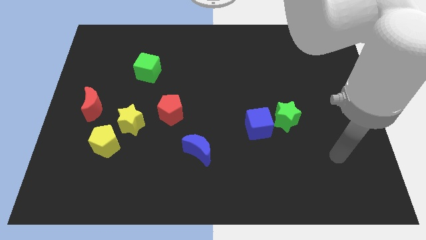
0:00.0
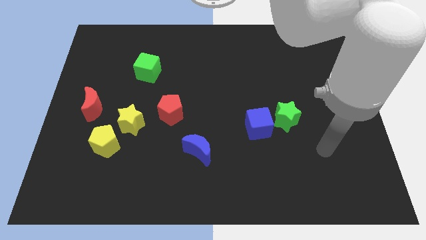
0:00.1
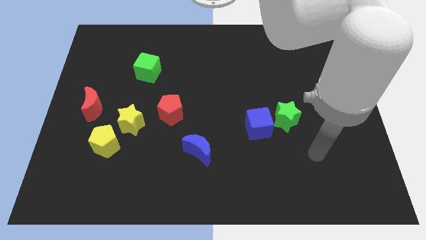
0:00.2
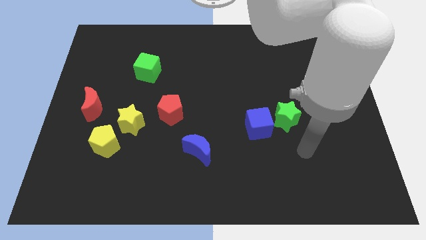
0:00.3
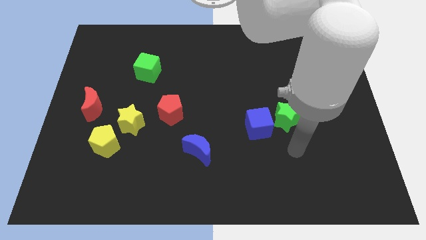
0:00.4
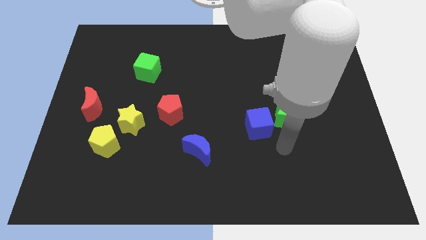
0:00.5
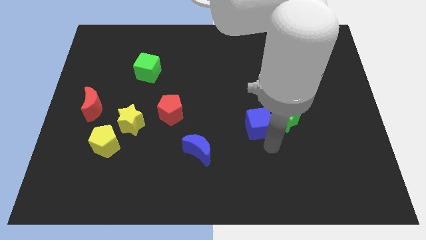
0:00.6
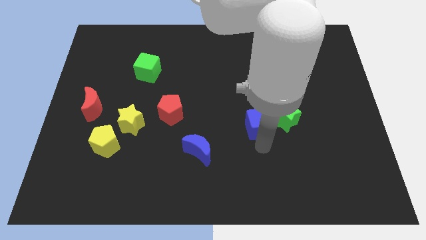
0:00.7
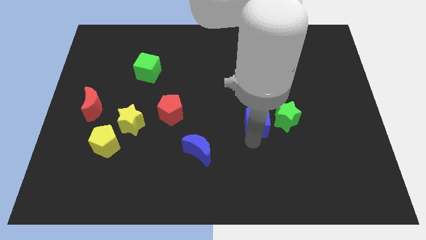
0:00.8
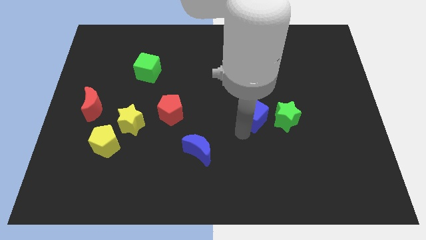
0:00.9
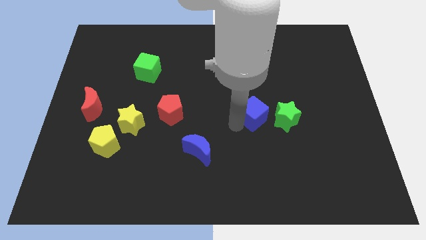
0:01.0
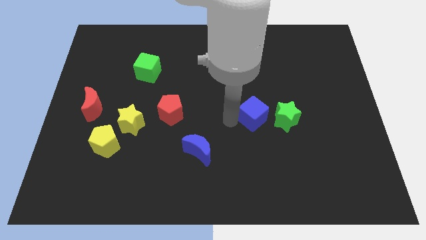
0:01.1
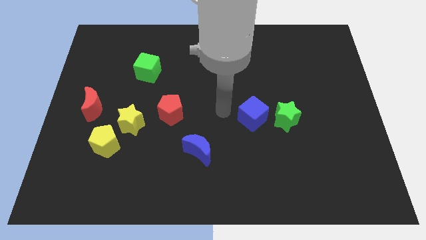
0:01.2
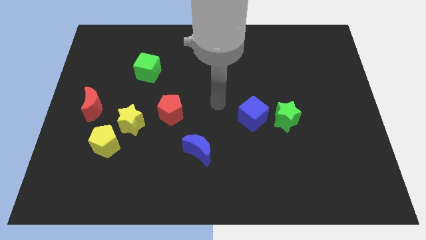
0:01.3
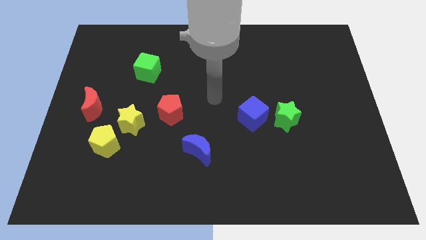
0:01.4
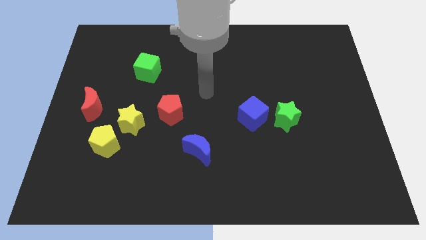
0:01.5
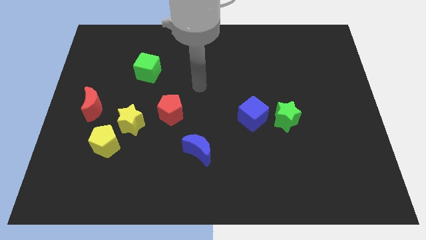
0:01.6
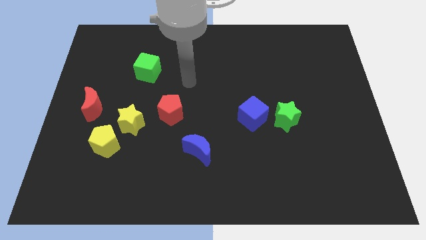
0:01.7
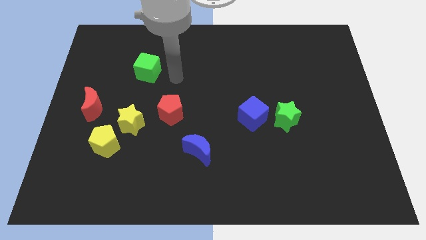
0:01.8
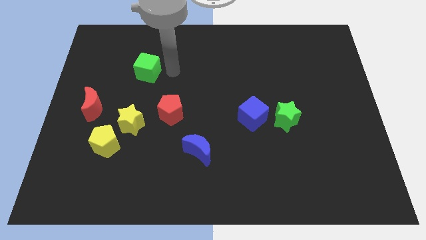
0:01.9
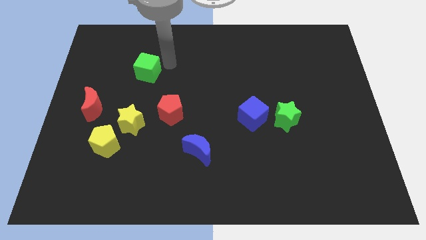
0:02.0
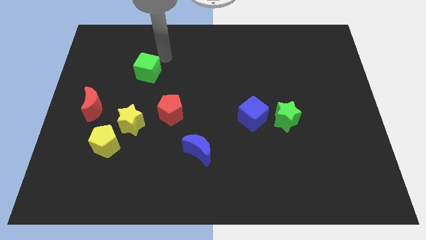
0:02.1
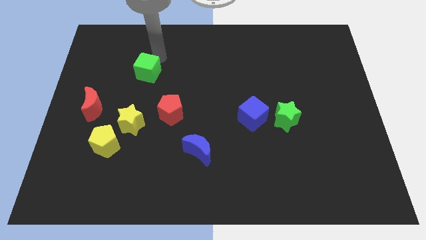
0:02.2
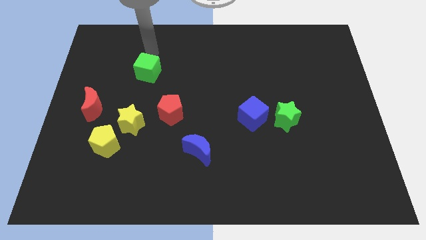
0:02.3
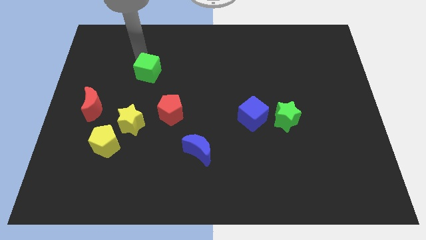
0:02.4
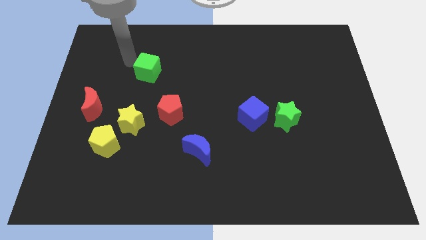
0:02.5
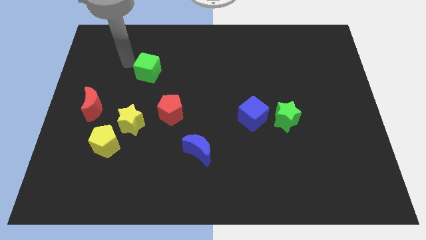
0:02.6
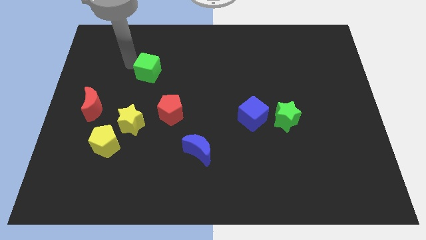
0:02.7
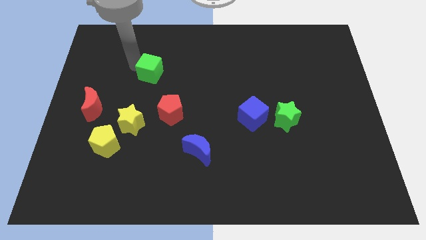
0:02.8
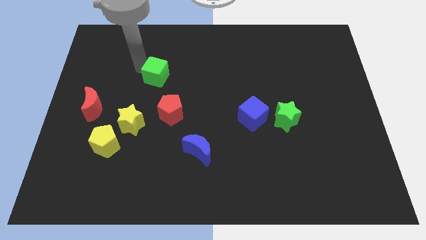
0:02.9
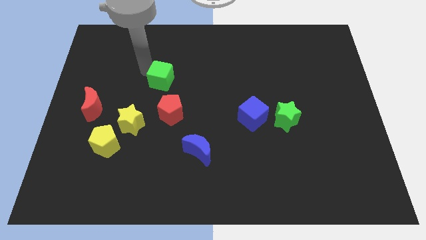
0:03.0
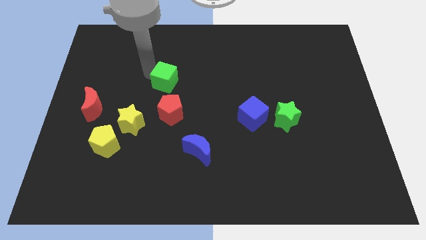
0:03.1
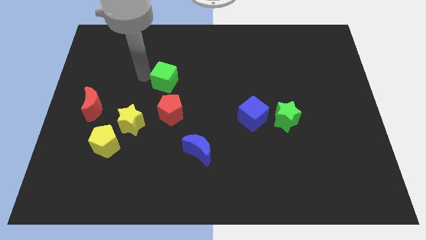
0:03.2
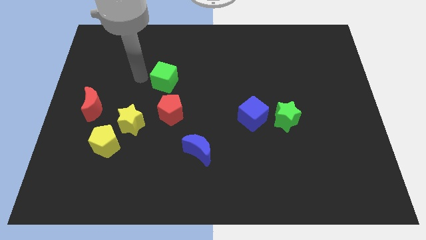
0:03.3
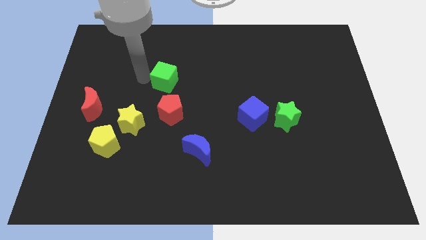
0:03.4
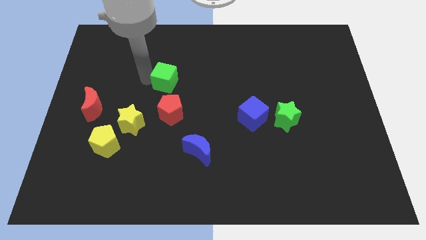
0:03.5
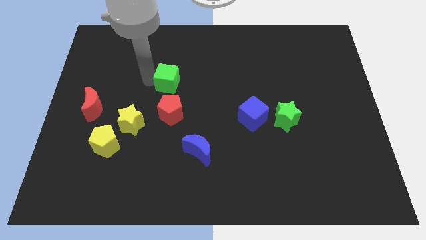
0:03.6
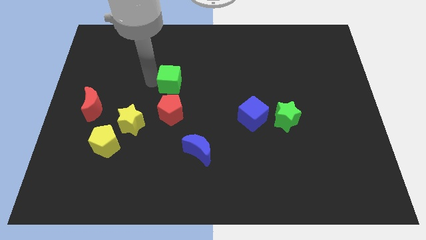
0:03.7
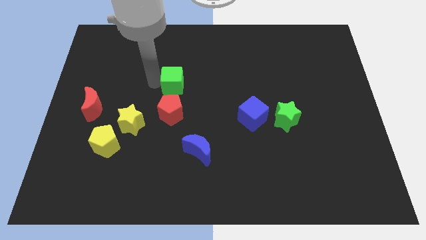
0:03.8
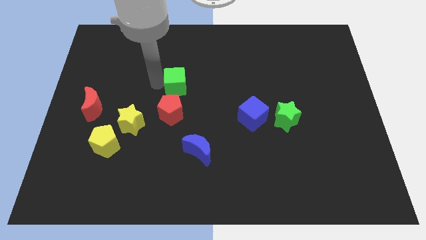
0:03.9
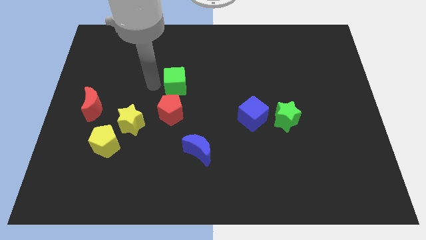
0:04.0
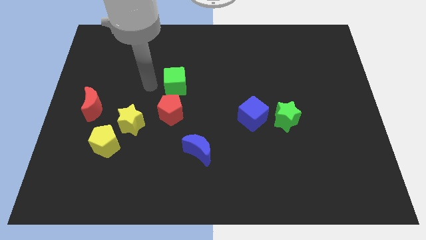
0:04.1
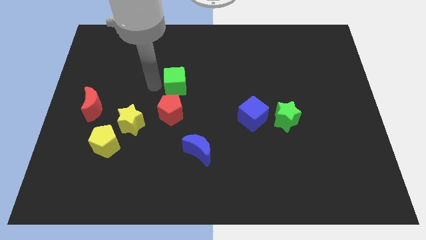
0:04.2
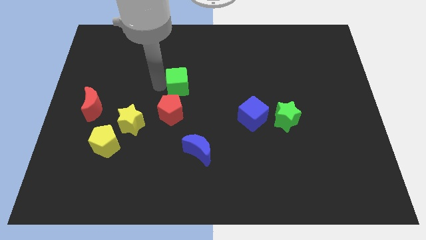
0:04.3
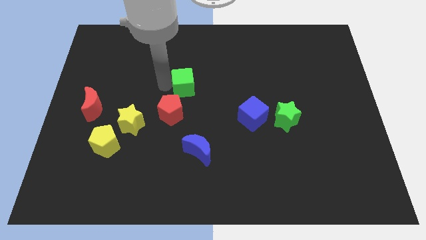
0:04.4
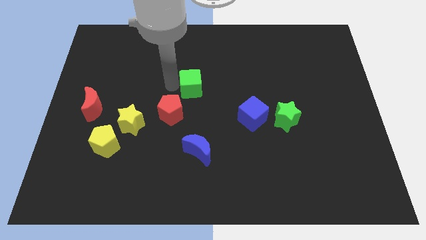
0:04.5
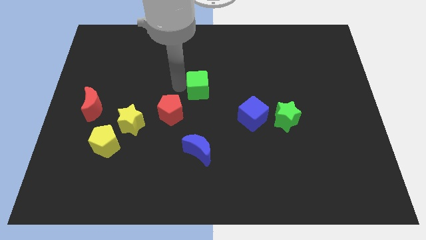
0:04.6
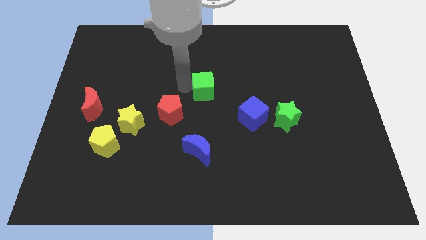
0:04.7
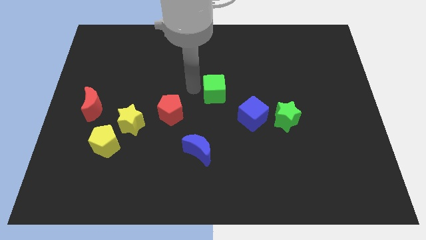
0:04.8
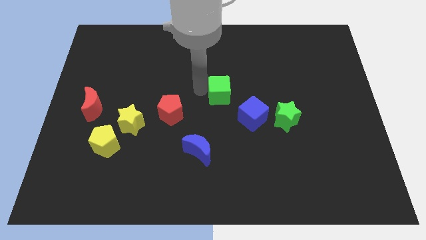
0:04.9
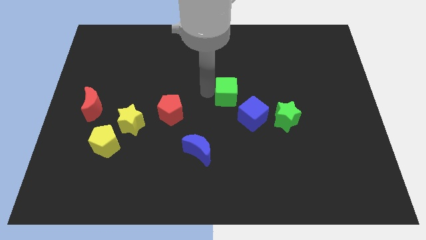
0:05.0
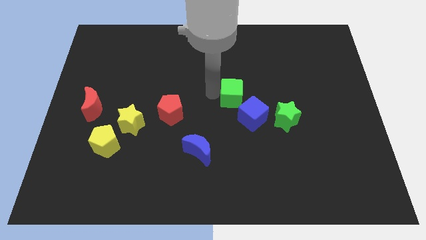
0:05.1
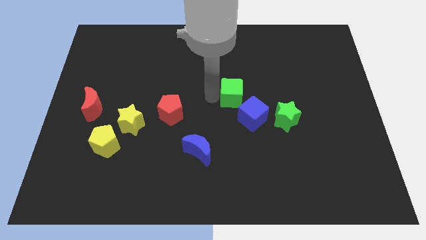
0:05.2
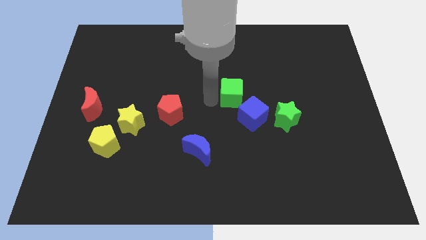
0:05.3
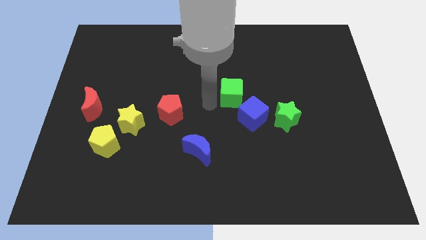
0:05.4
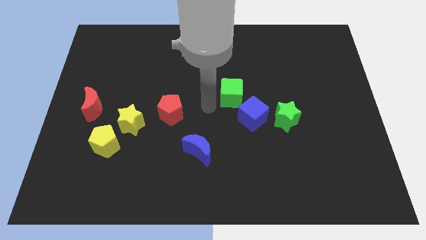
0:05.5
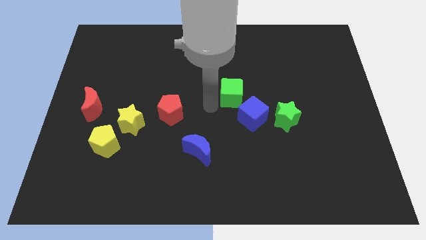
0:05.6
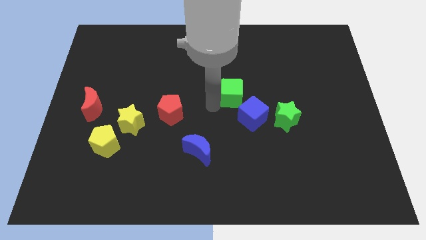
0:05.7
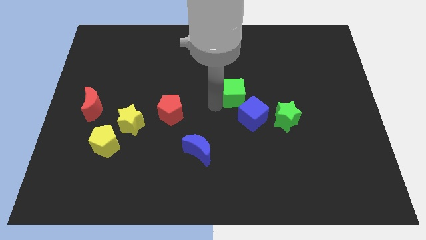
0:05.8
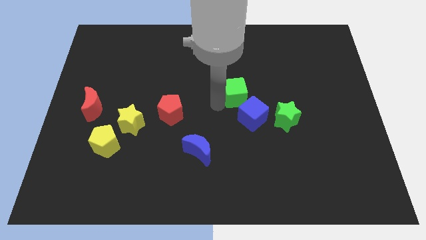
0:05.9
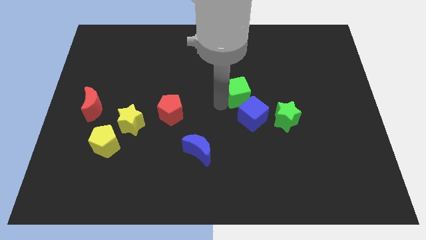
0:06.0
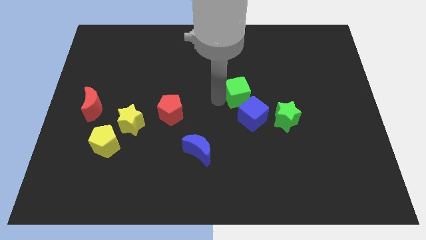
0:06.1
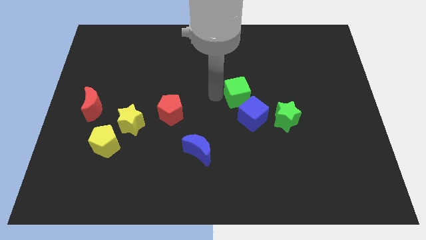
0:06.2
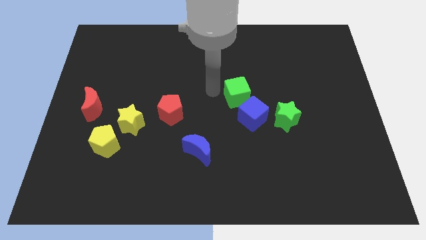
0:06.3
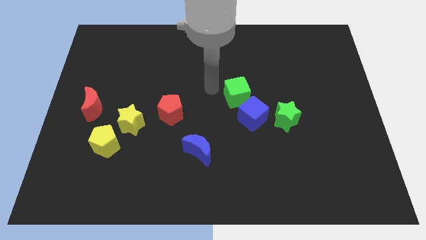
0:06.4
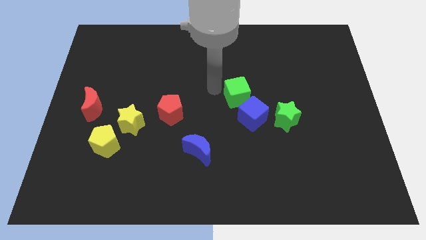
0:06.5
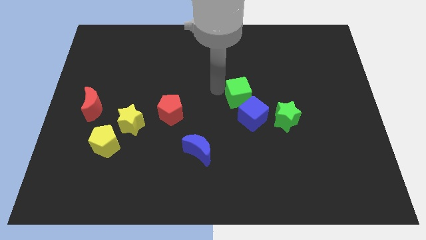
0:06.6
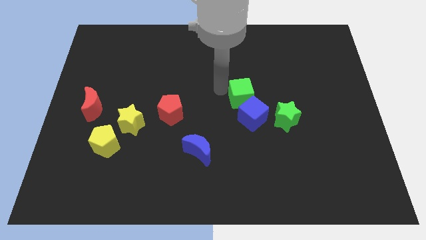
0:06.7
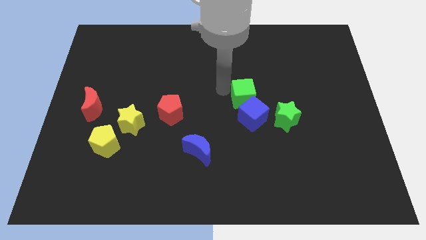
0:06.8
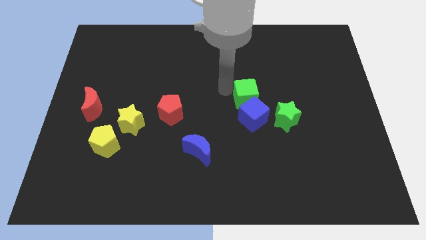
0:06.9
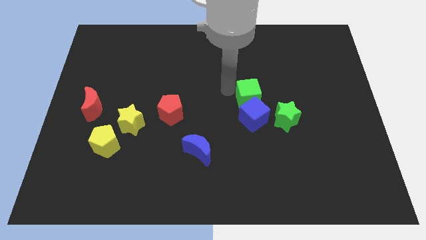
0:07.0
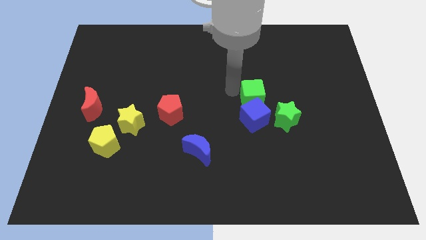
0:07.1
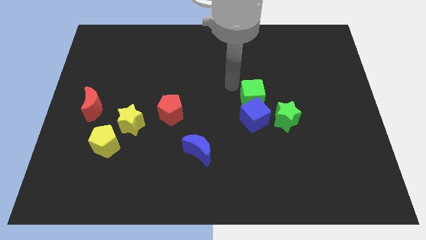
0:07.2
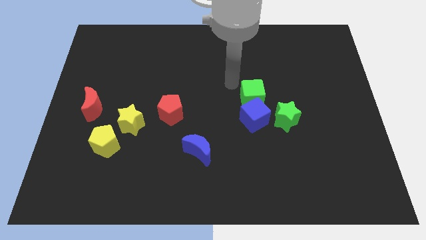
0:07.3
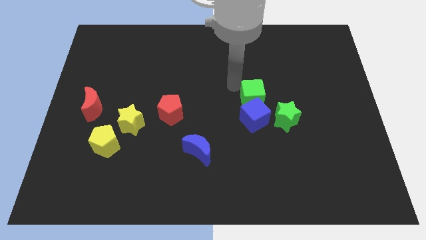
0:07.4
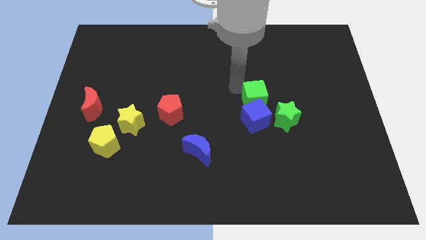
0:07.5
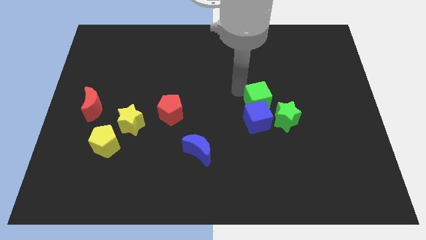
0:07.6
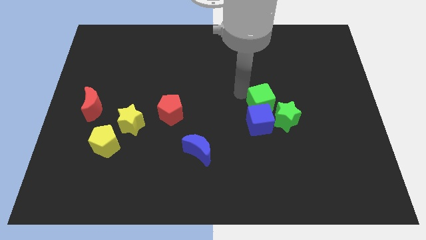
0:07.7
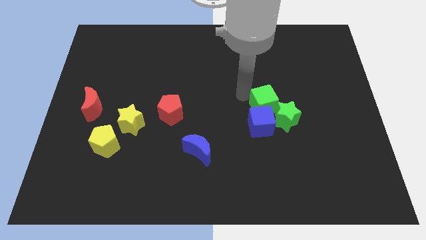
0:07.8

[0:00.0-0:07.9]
put the green cube next to the green star
